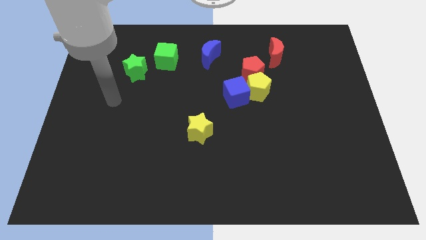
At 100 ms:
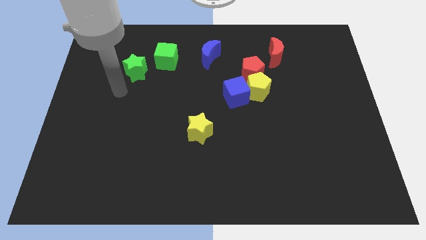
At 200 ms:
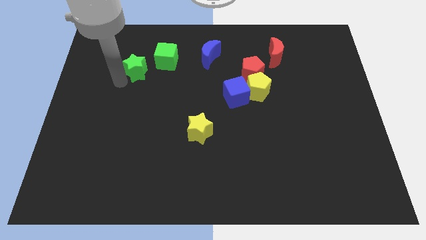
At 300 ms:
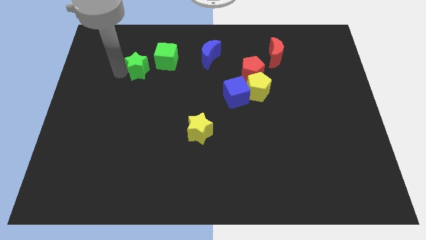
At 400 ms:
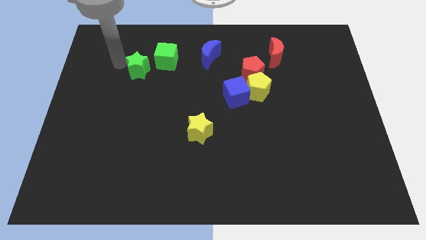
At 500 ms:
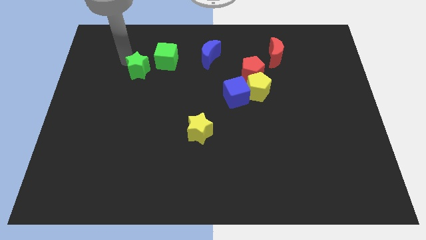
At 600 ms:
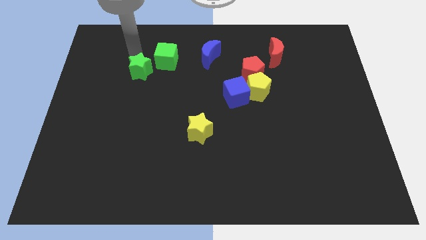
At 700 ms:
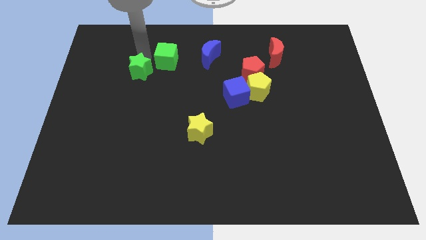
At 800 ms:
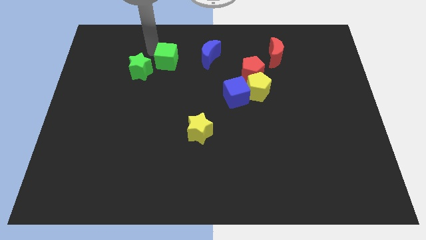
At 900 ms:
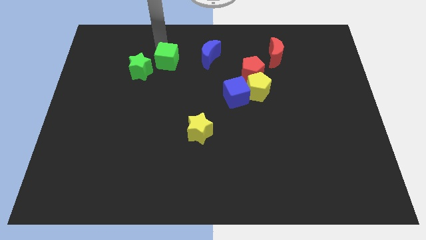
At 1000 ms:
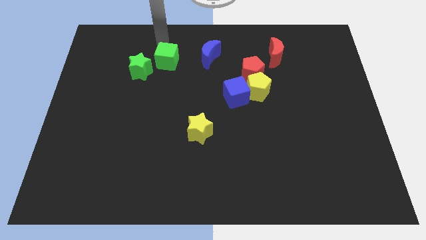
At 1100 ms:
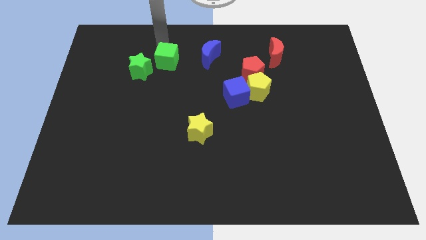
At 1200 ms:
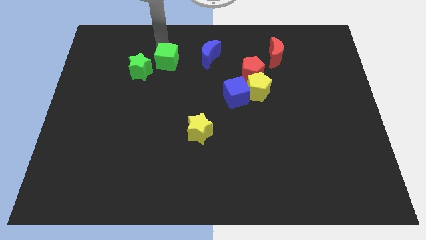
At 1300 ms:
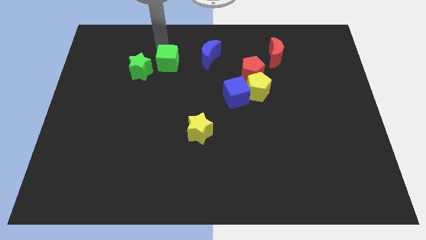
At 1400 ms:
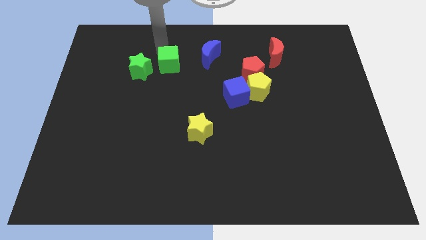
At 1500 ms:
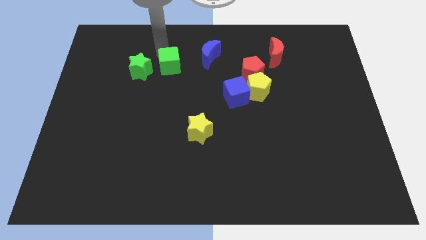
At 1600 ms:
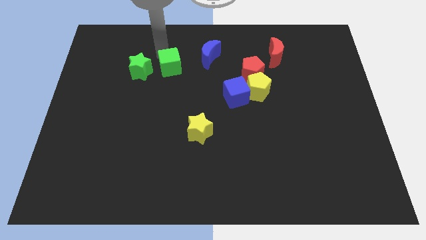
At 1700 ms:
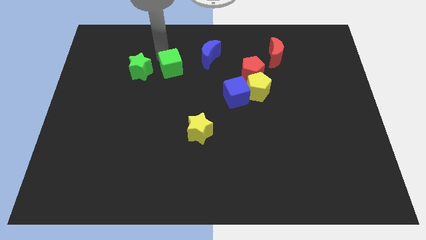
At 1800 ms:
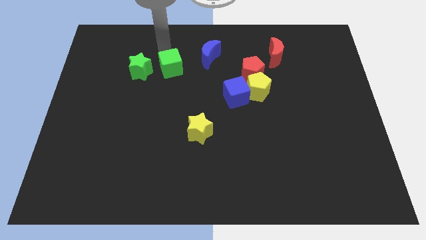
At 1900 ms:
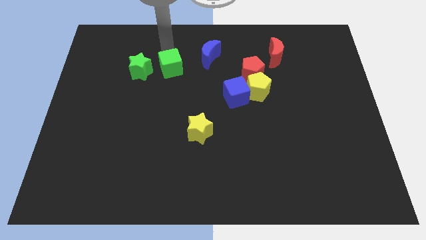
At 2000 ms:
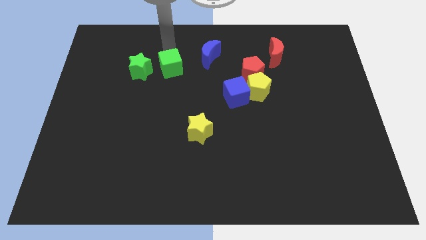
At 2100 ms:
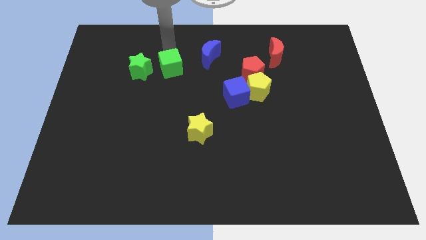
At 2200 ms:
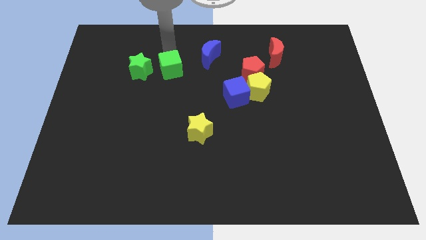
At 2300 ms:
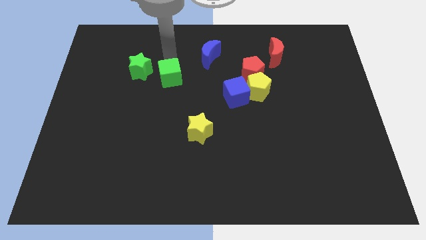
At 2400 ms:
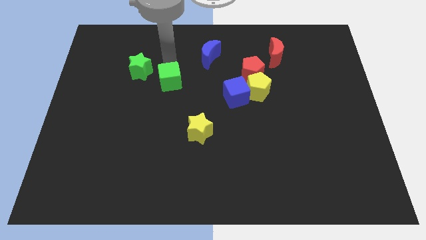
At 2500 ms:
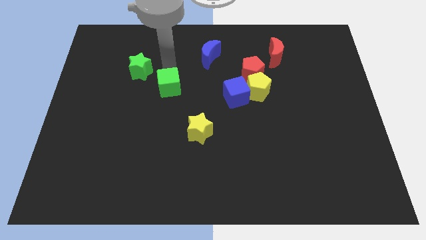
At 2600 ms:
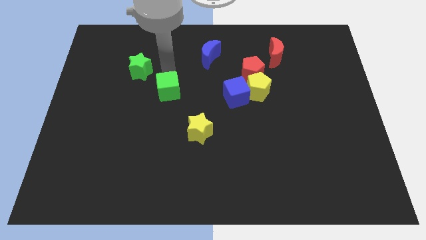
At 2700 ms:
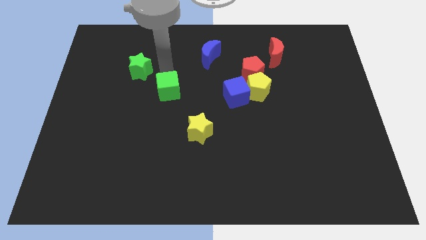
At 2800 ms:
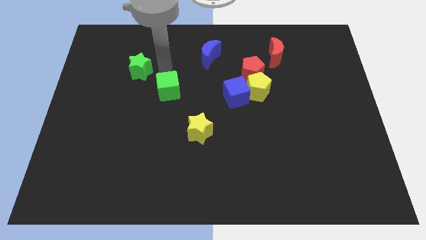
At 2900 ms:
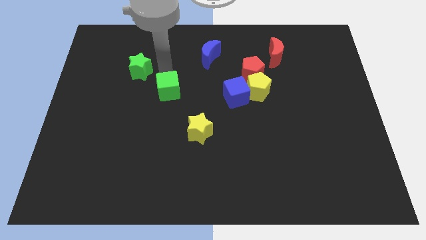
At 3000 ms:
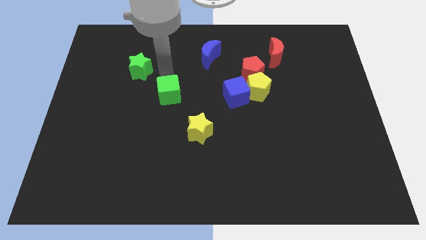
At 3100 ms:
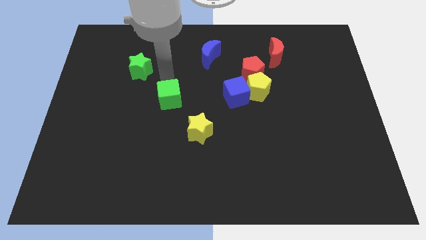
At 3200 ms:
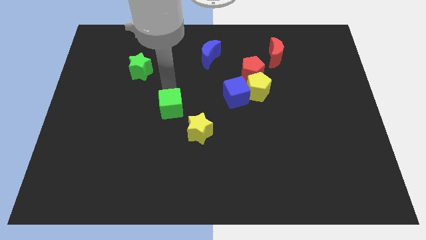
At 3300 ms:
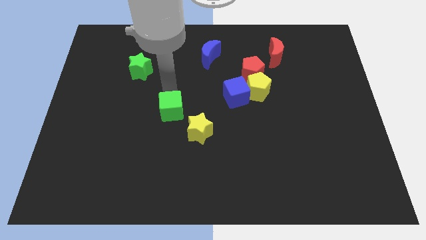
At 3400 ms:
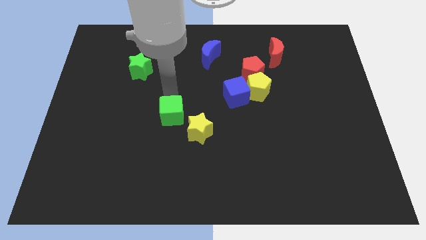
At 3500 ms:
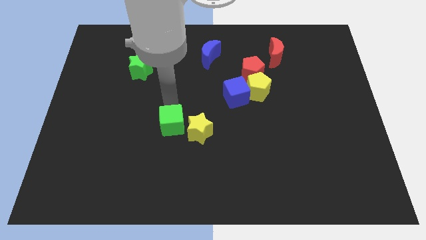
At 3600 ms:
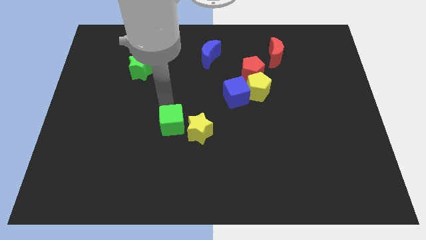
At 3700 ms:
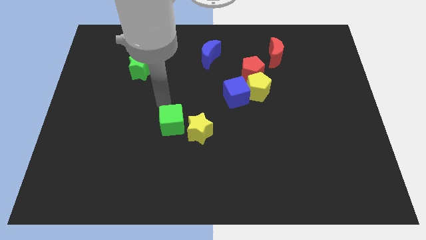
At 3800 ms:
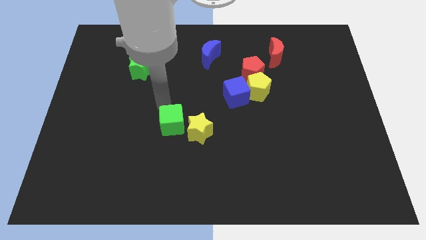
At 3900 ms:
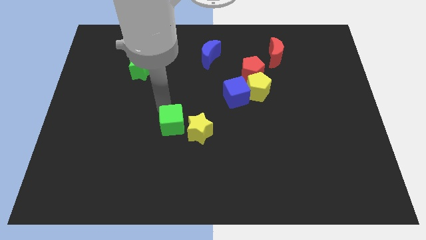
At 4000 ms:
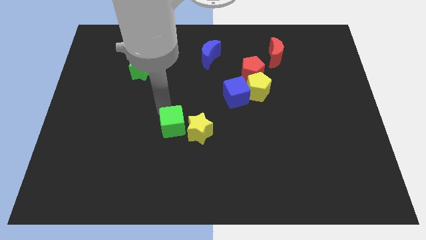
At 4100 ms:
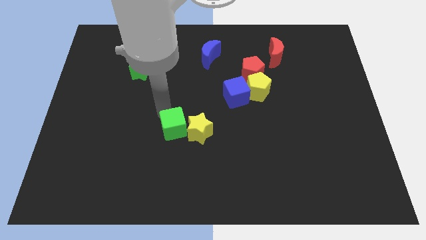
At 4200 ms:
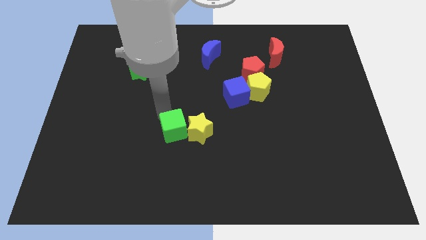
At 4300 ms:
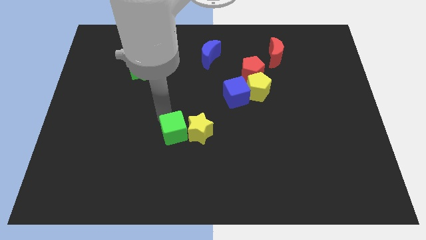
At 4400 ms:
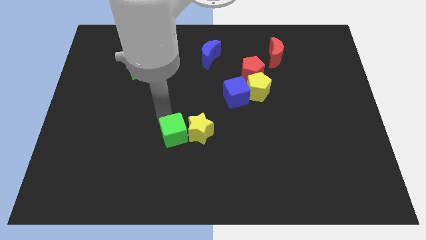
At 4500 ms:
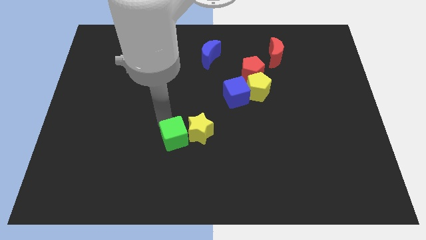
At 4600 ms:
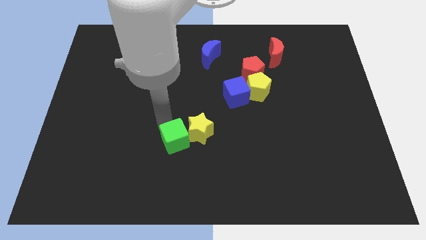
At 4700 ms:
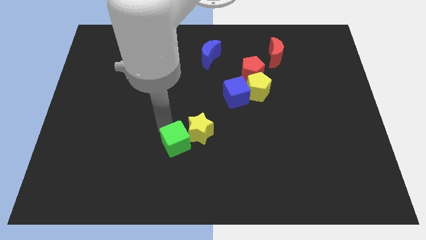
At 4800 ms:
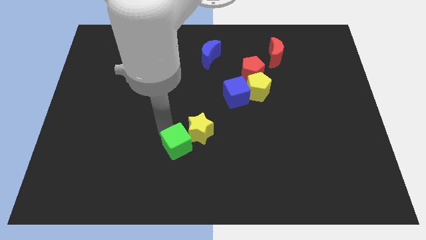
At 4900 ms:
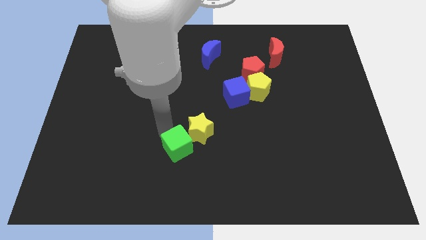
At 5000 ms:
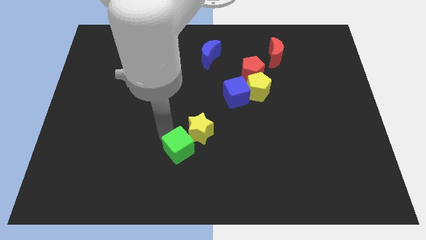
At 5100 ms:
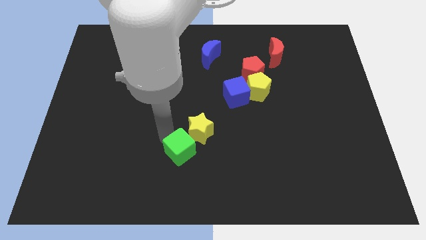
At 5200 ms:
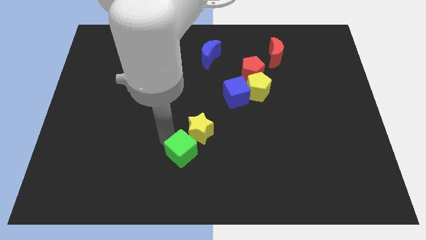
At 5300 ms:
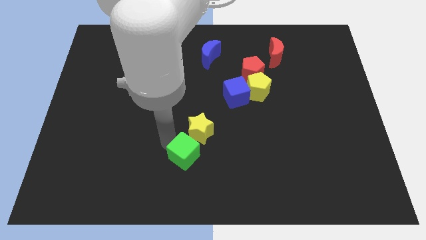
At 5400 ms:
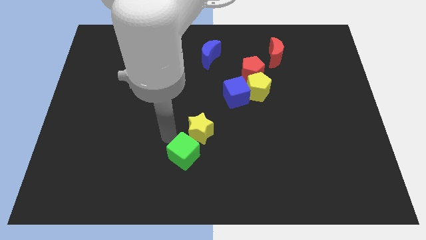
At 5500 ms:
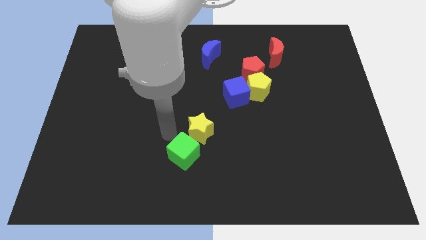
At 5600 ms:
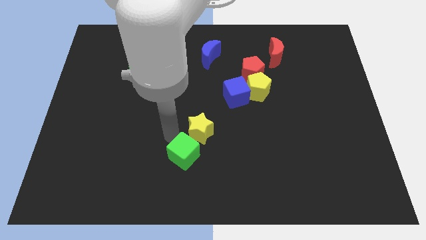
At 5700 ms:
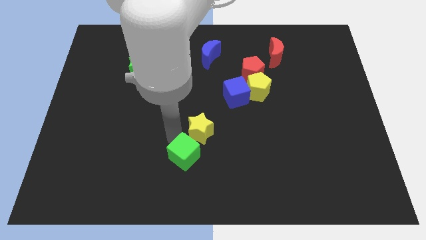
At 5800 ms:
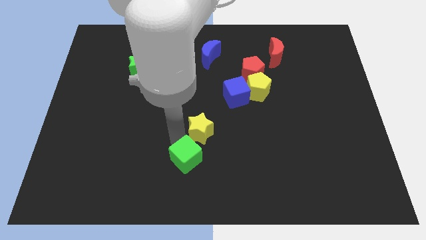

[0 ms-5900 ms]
put the green cube to the bottom side

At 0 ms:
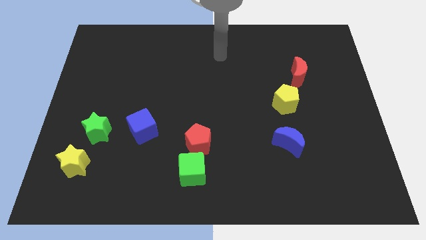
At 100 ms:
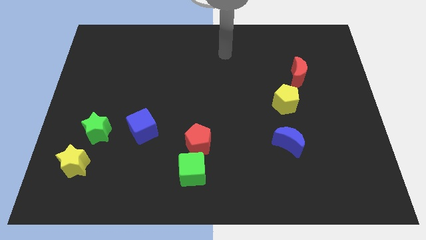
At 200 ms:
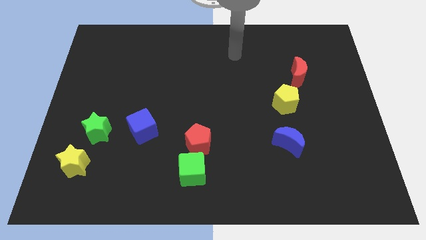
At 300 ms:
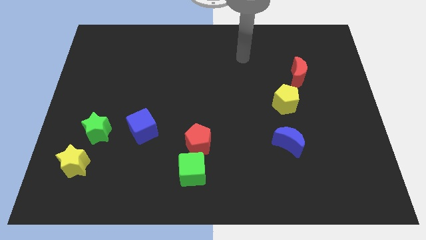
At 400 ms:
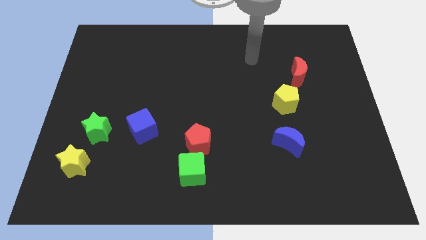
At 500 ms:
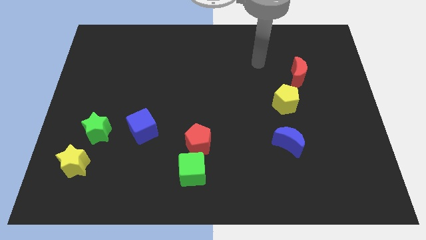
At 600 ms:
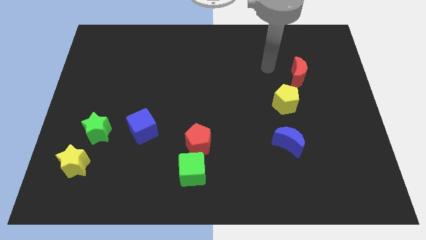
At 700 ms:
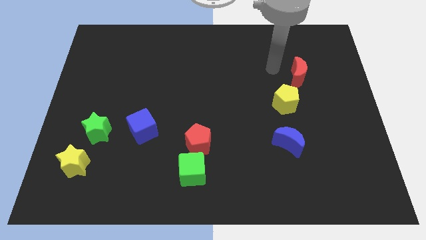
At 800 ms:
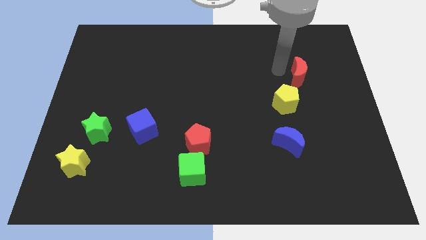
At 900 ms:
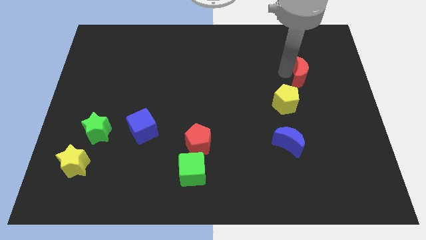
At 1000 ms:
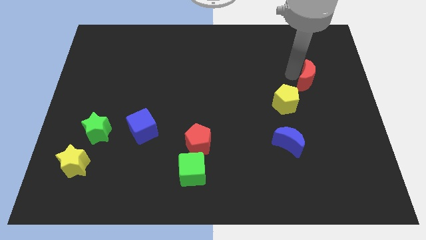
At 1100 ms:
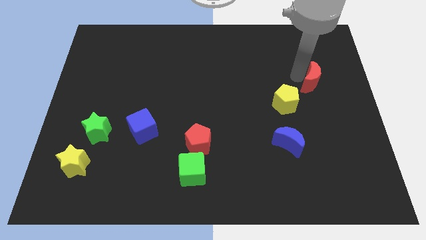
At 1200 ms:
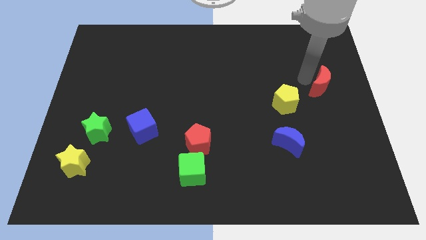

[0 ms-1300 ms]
put the red moon to the right side
